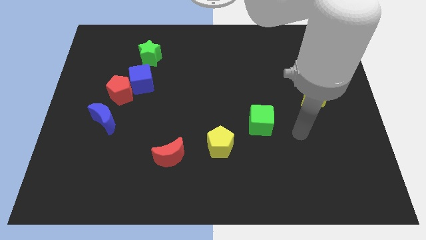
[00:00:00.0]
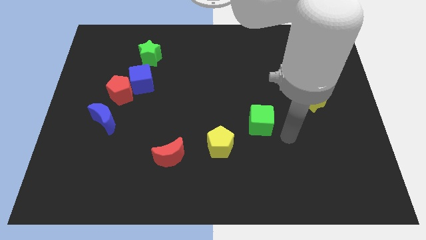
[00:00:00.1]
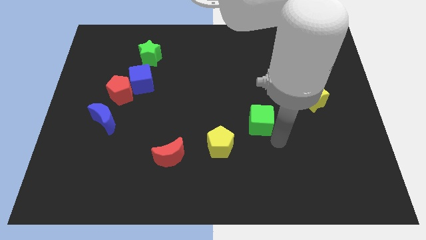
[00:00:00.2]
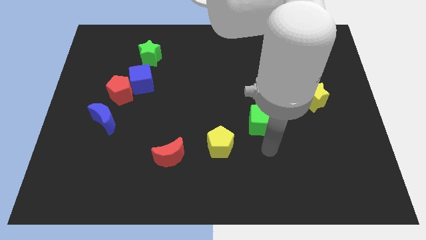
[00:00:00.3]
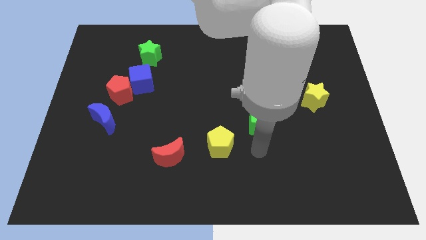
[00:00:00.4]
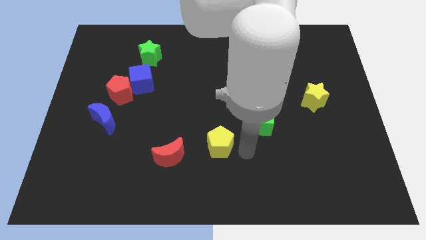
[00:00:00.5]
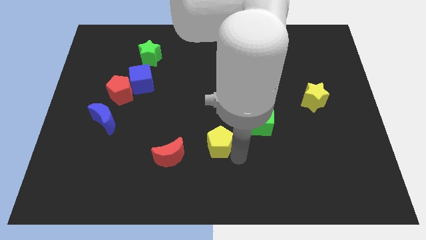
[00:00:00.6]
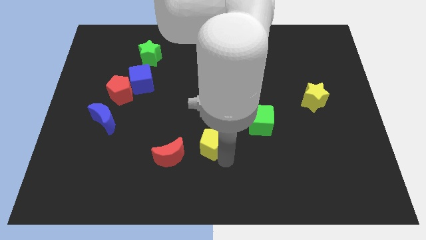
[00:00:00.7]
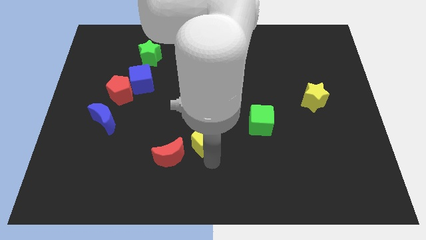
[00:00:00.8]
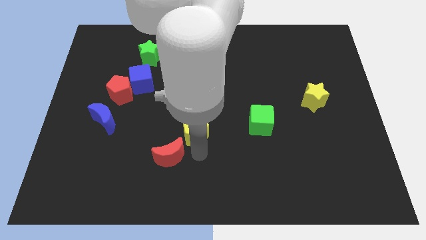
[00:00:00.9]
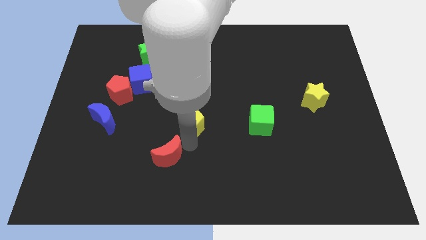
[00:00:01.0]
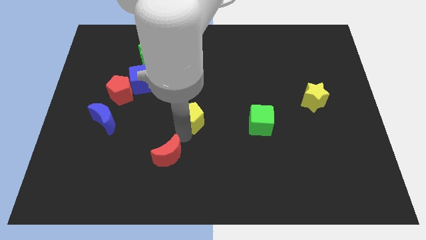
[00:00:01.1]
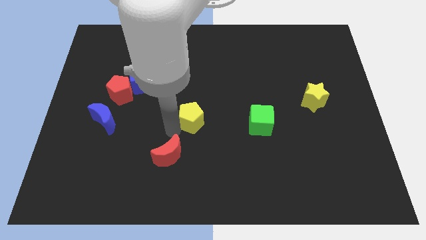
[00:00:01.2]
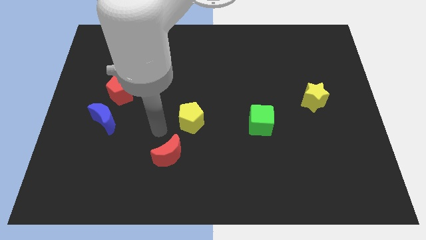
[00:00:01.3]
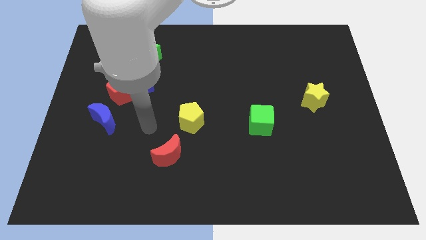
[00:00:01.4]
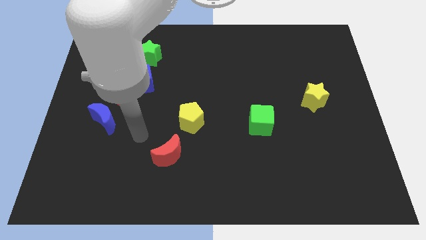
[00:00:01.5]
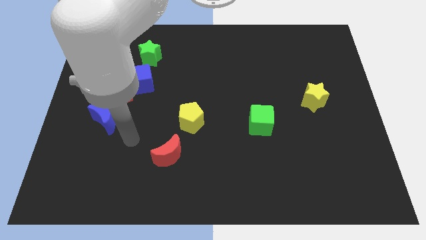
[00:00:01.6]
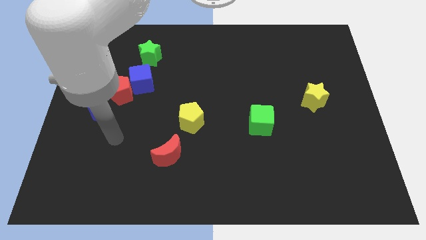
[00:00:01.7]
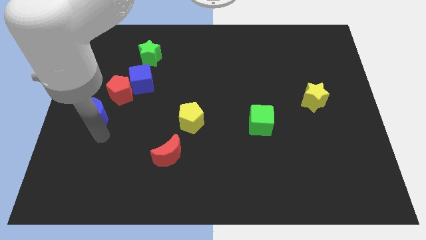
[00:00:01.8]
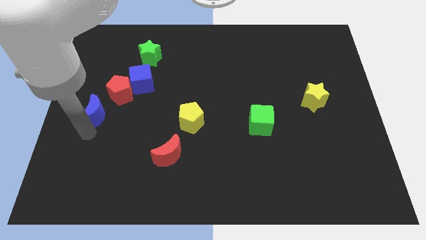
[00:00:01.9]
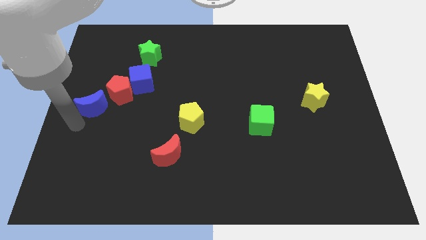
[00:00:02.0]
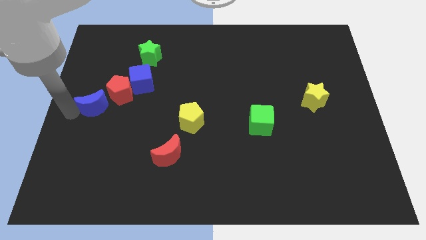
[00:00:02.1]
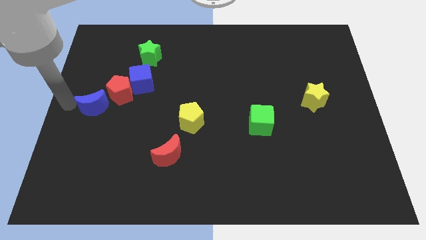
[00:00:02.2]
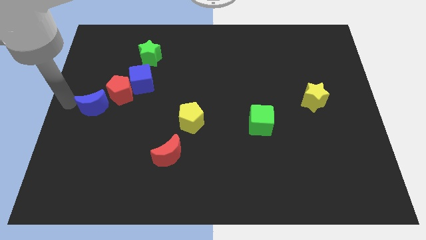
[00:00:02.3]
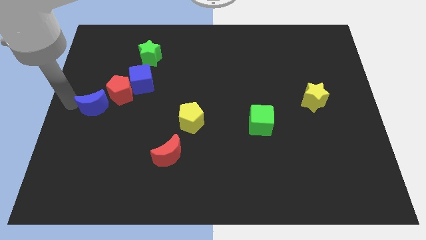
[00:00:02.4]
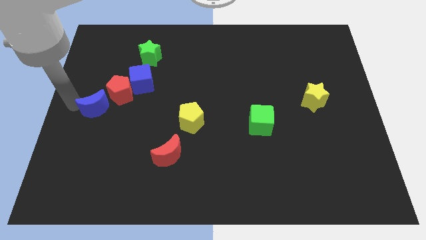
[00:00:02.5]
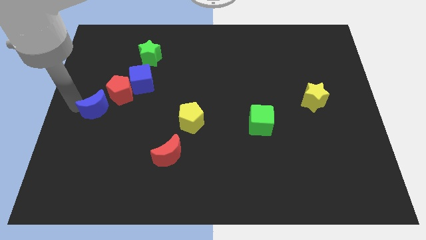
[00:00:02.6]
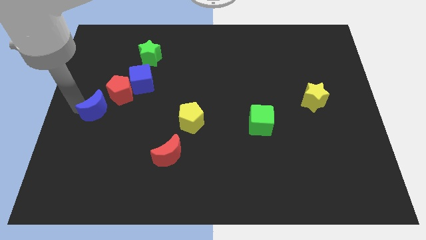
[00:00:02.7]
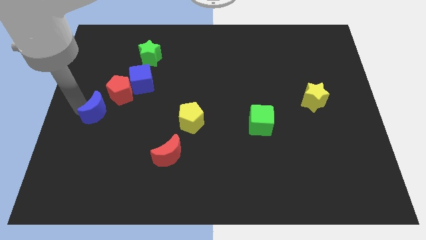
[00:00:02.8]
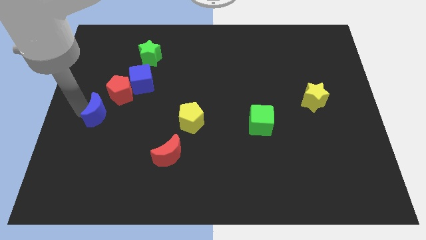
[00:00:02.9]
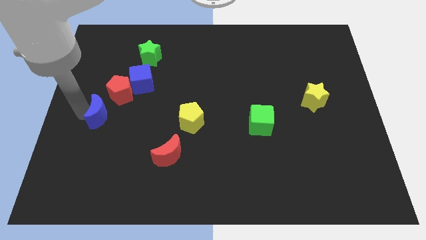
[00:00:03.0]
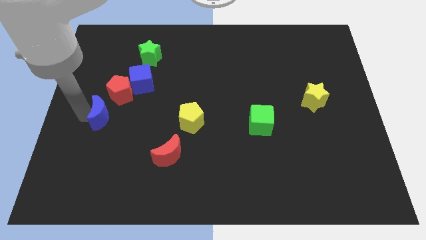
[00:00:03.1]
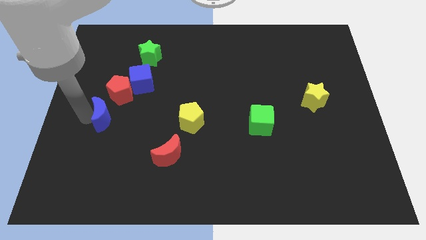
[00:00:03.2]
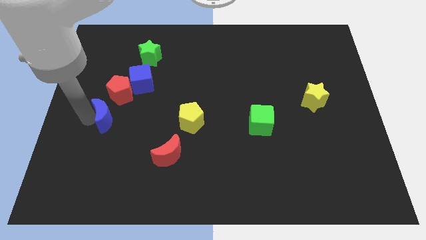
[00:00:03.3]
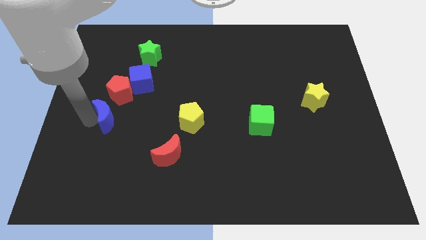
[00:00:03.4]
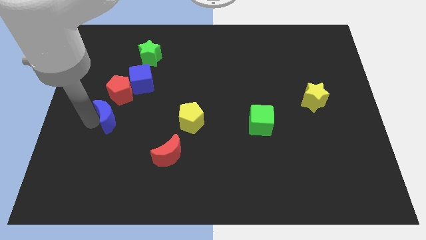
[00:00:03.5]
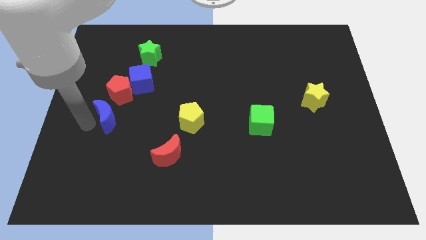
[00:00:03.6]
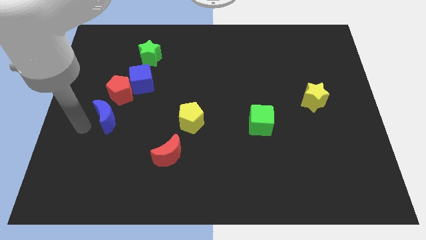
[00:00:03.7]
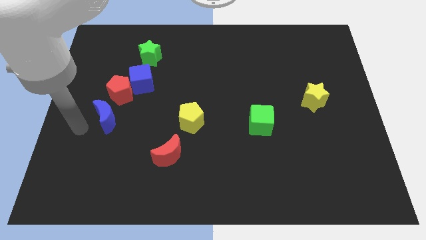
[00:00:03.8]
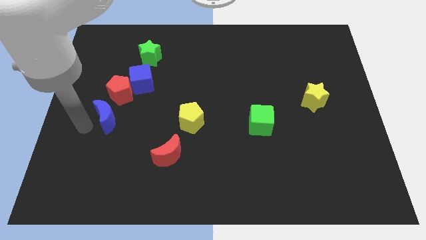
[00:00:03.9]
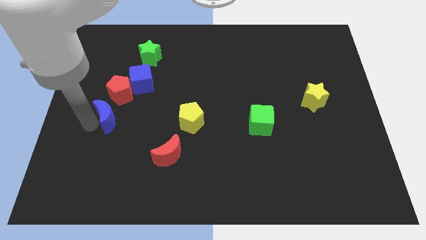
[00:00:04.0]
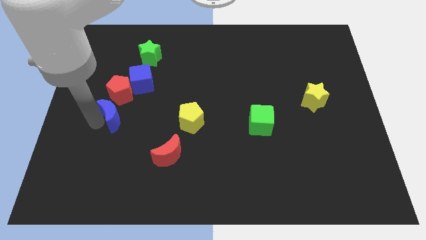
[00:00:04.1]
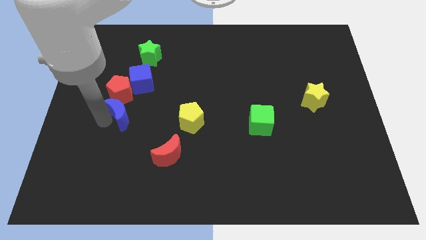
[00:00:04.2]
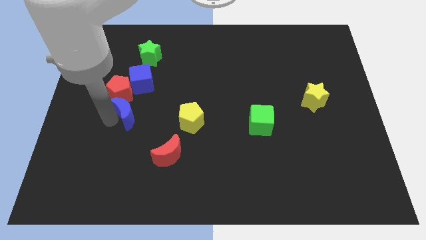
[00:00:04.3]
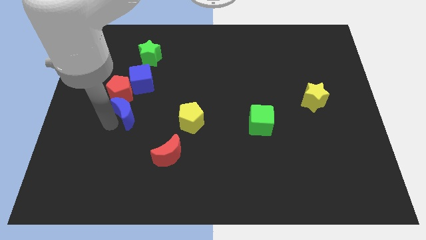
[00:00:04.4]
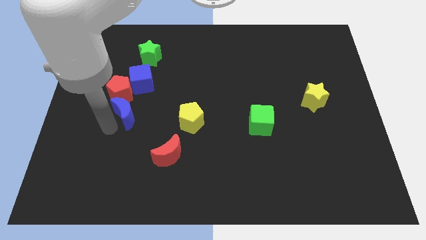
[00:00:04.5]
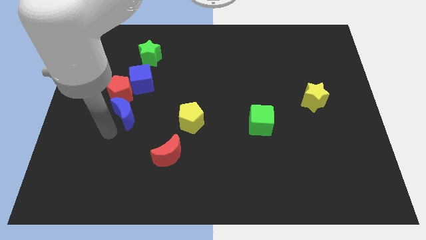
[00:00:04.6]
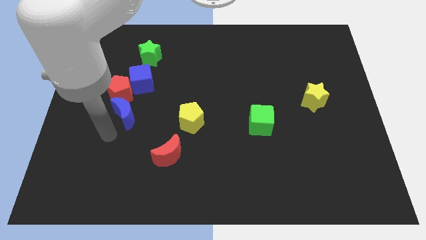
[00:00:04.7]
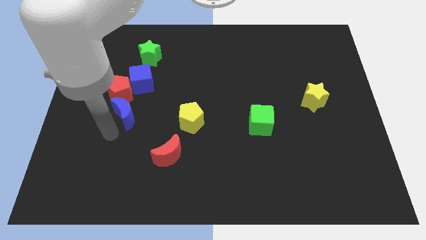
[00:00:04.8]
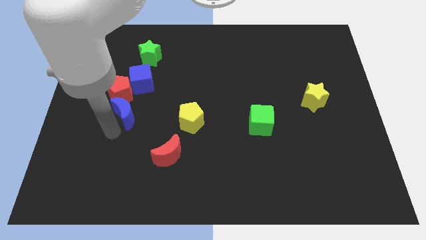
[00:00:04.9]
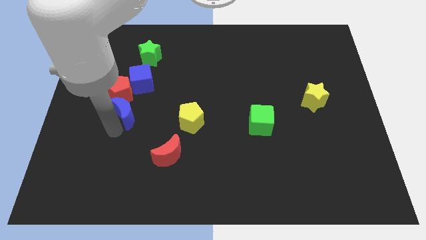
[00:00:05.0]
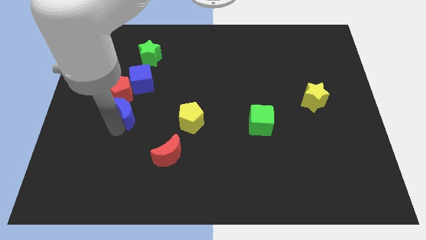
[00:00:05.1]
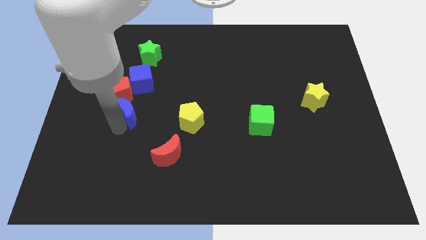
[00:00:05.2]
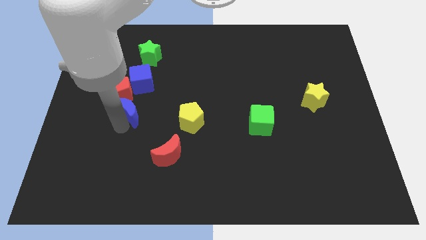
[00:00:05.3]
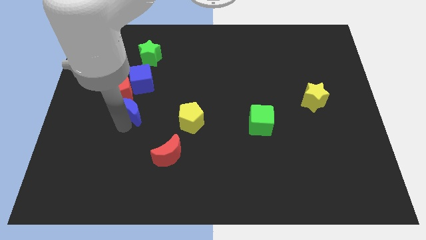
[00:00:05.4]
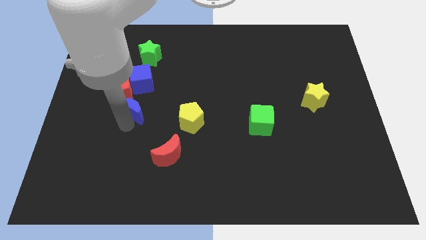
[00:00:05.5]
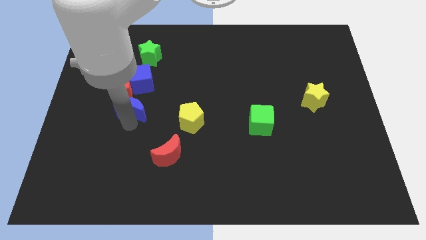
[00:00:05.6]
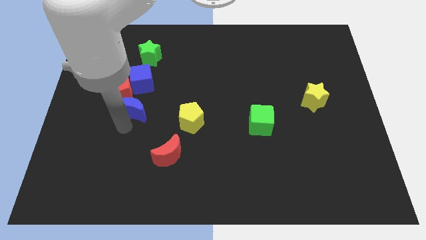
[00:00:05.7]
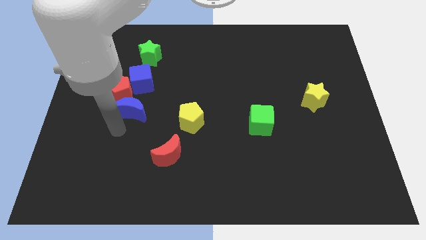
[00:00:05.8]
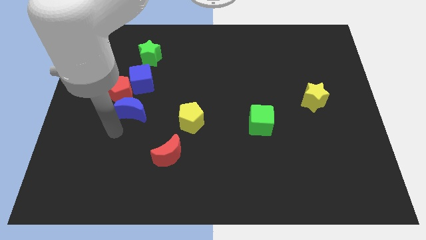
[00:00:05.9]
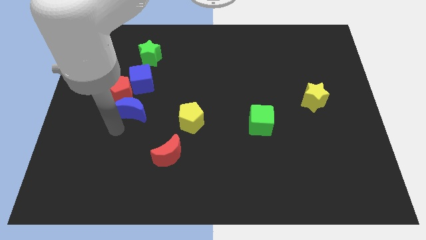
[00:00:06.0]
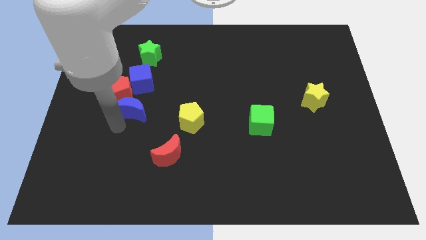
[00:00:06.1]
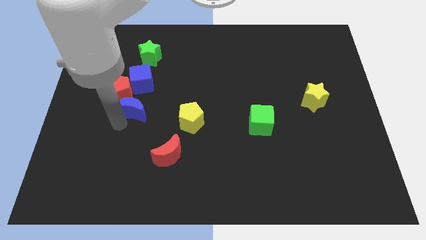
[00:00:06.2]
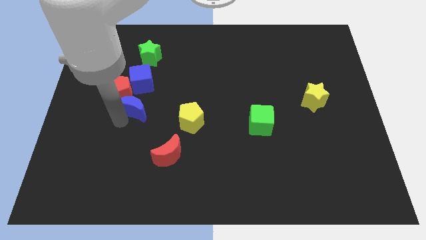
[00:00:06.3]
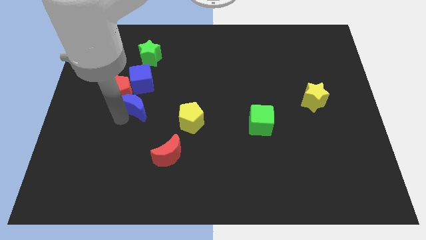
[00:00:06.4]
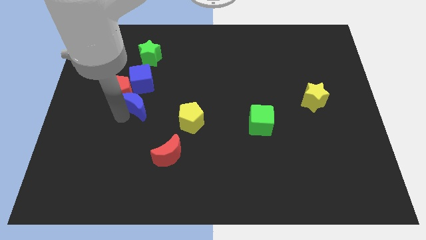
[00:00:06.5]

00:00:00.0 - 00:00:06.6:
move the blue moon up and to the right a bit

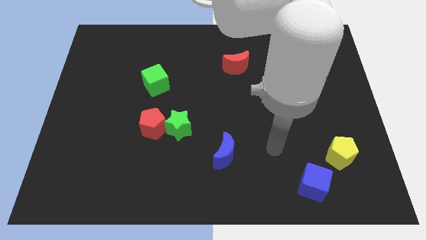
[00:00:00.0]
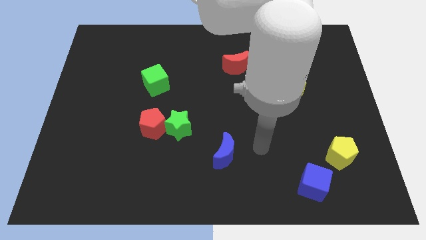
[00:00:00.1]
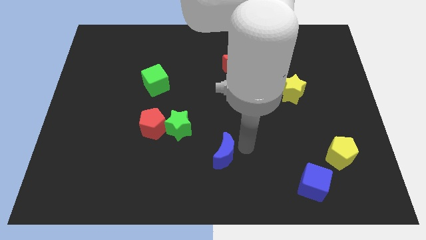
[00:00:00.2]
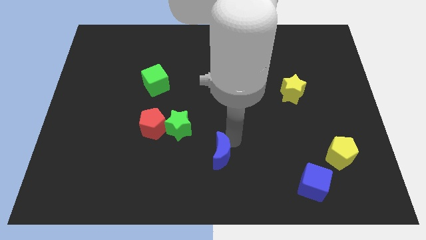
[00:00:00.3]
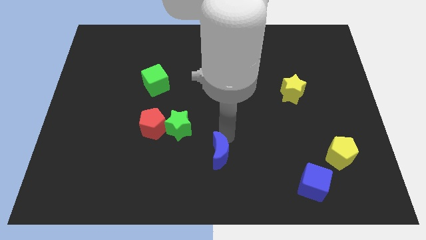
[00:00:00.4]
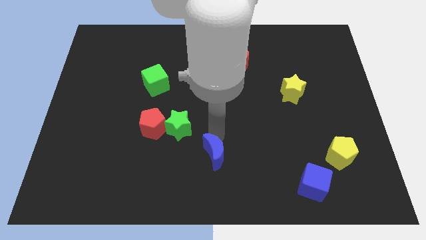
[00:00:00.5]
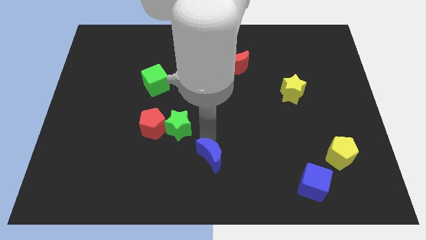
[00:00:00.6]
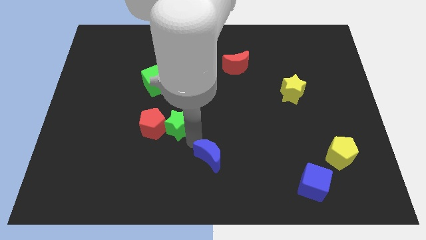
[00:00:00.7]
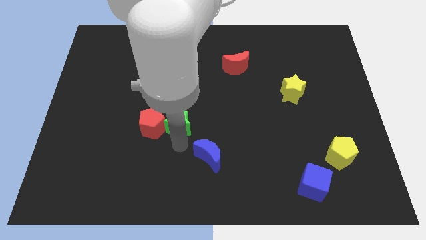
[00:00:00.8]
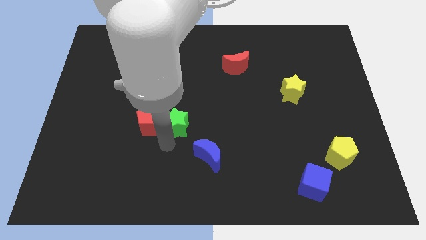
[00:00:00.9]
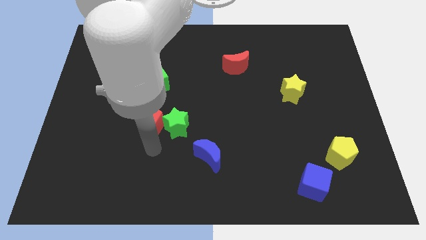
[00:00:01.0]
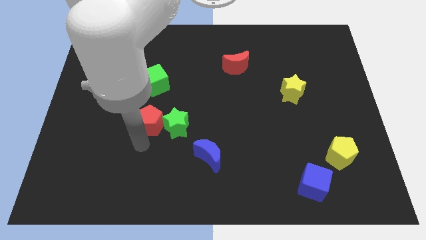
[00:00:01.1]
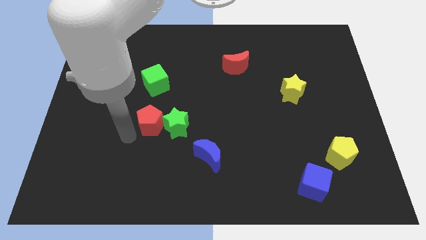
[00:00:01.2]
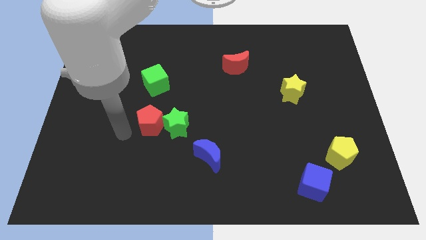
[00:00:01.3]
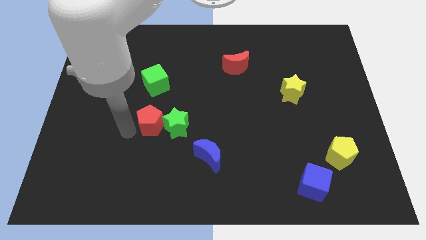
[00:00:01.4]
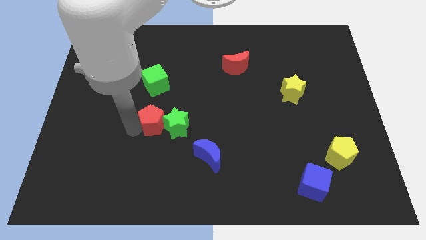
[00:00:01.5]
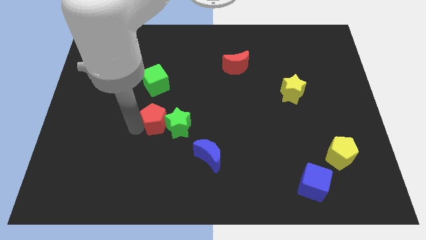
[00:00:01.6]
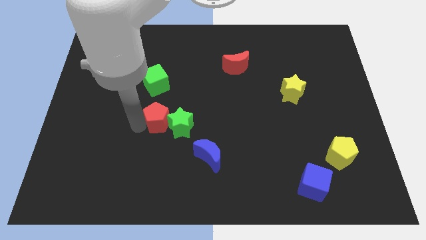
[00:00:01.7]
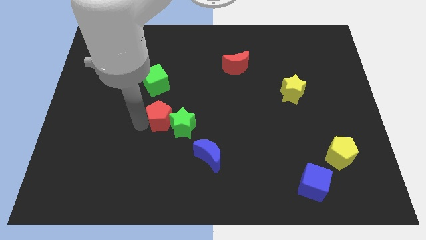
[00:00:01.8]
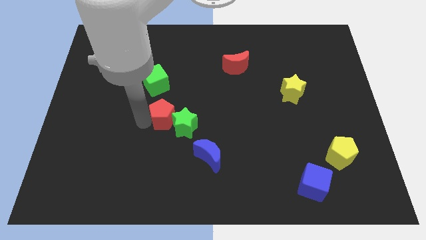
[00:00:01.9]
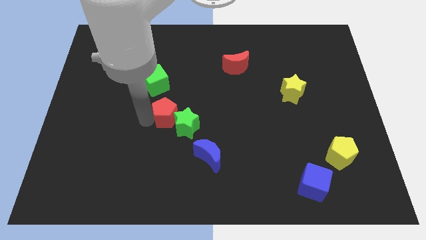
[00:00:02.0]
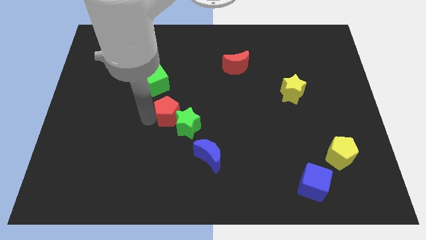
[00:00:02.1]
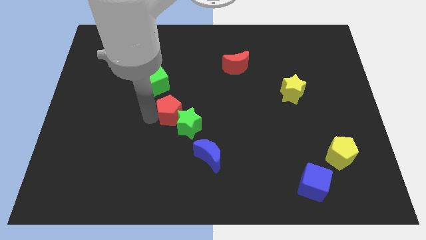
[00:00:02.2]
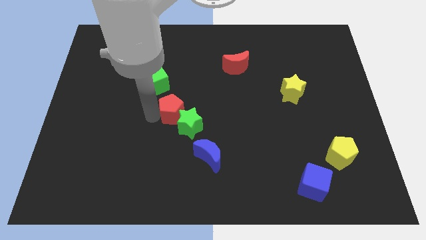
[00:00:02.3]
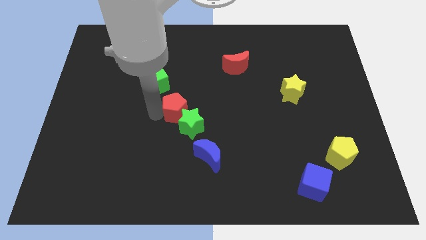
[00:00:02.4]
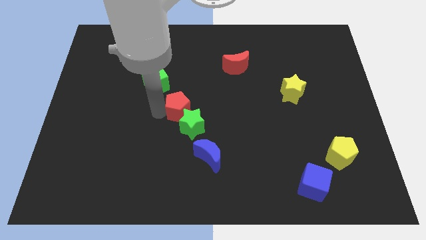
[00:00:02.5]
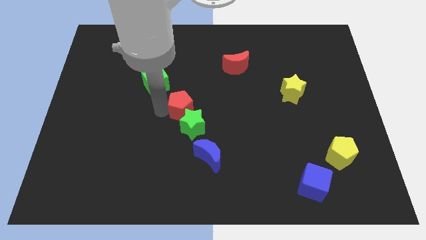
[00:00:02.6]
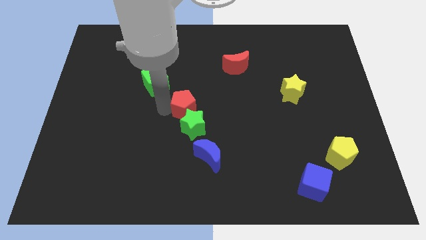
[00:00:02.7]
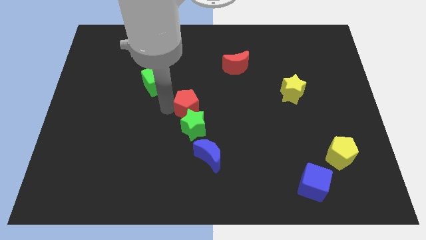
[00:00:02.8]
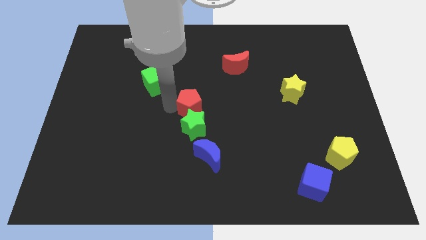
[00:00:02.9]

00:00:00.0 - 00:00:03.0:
move the red pentagon somewhat to the right
